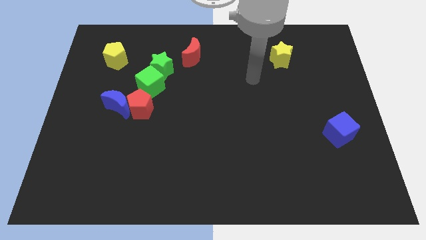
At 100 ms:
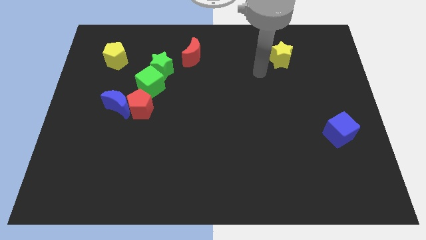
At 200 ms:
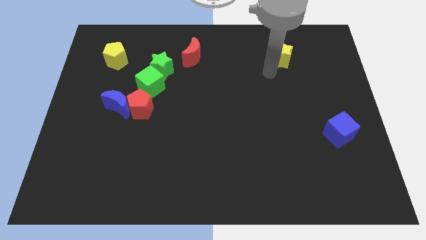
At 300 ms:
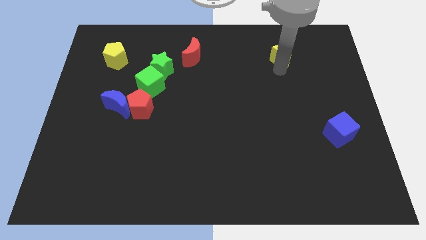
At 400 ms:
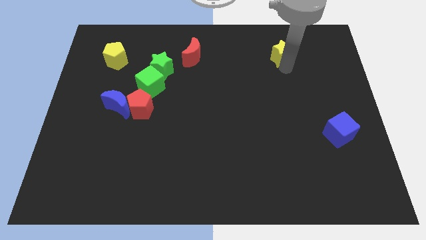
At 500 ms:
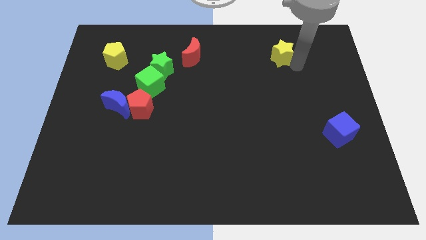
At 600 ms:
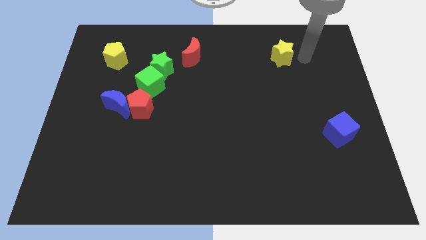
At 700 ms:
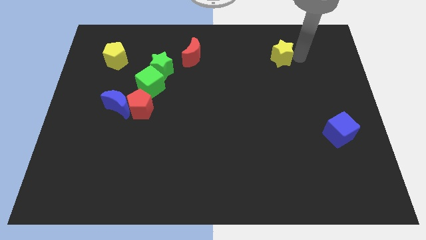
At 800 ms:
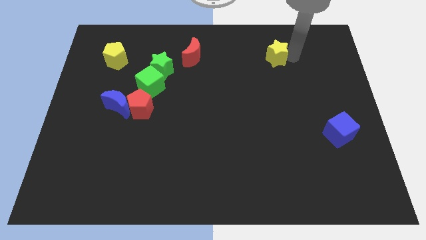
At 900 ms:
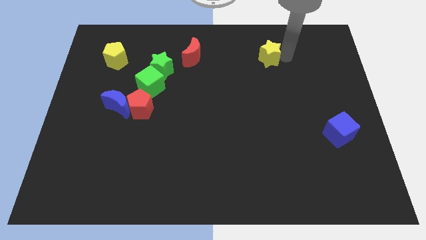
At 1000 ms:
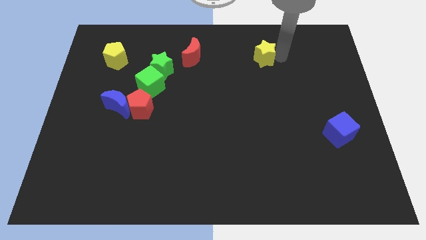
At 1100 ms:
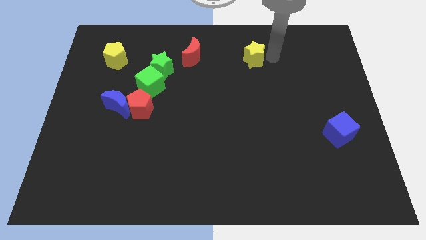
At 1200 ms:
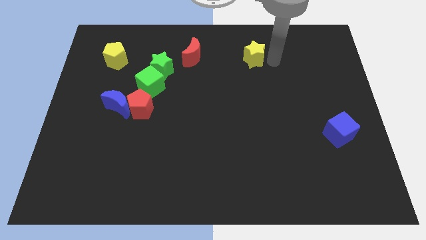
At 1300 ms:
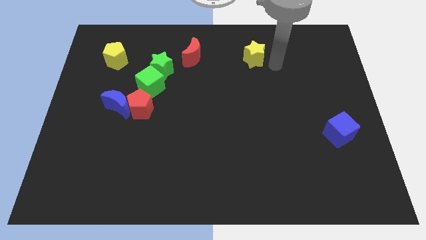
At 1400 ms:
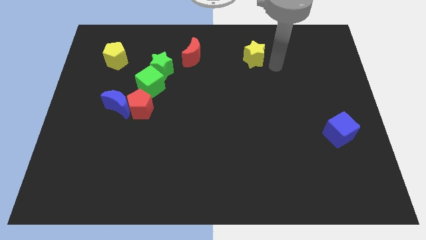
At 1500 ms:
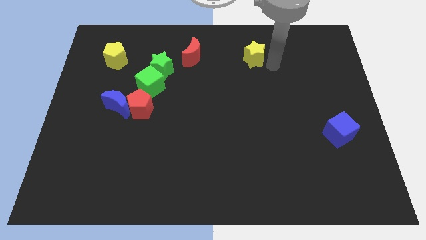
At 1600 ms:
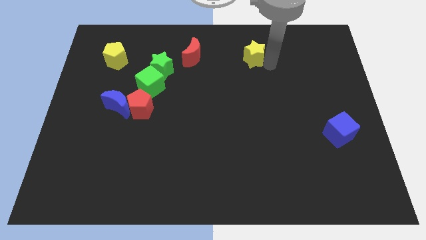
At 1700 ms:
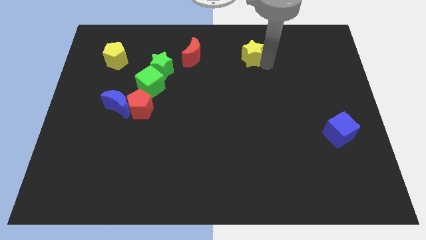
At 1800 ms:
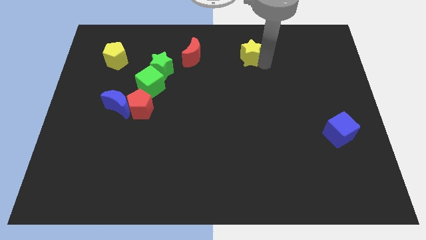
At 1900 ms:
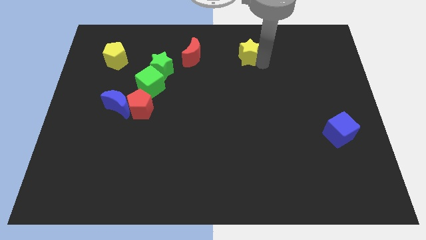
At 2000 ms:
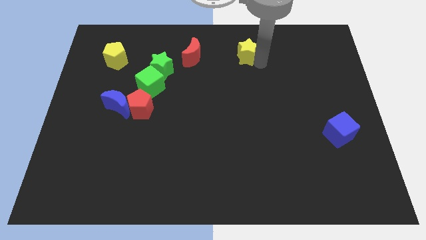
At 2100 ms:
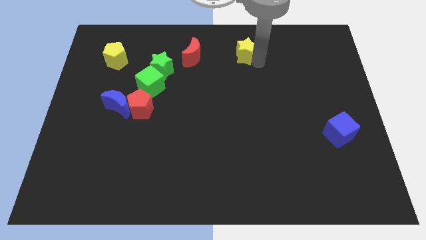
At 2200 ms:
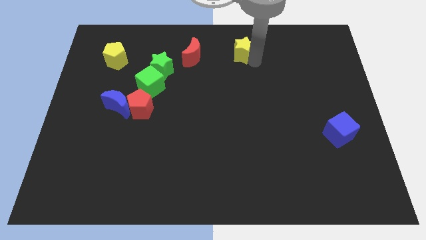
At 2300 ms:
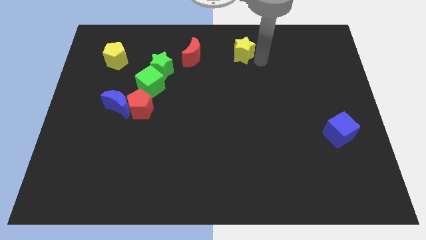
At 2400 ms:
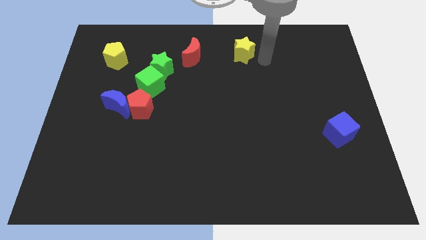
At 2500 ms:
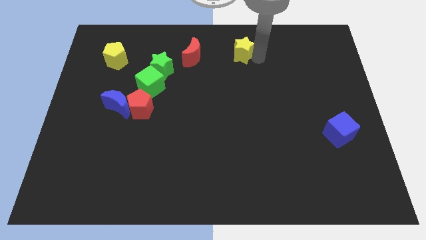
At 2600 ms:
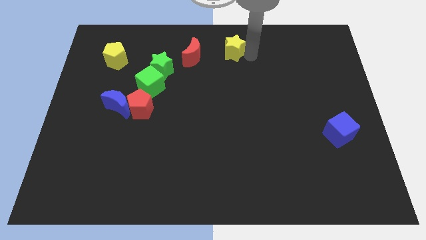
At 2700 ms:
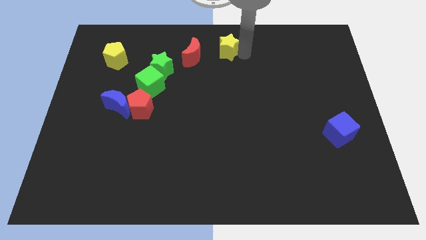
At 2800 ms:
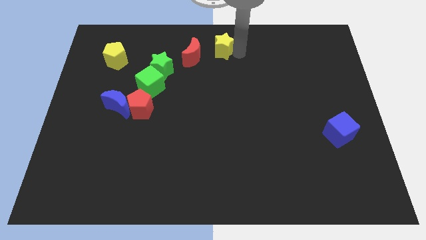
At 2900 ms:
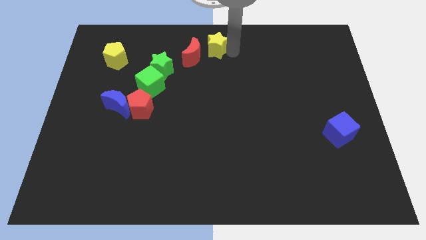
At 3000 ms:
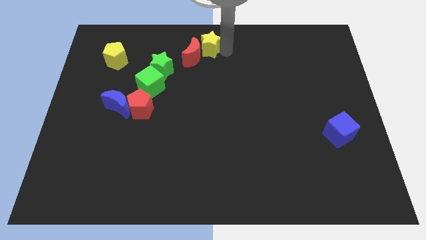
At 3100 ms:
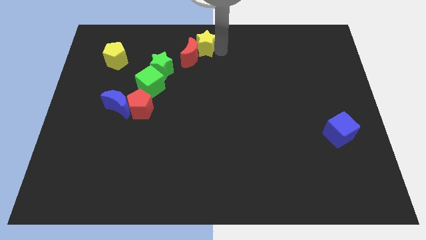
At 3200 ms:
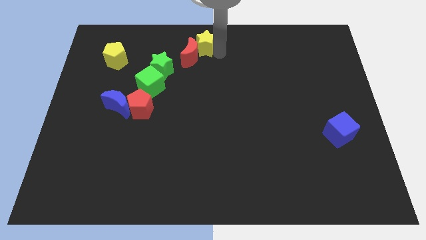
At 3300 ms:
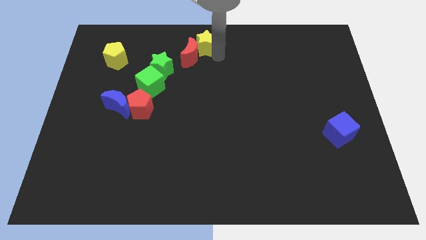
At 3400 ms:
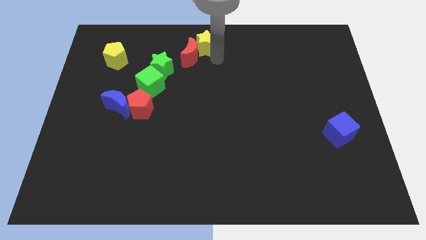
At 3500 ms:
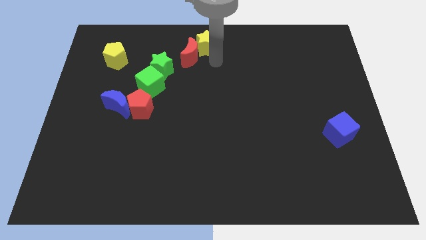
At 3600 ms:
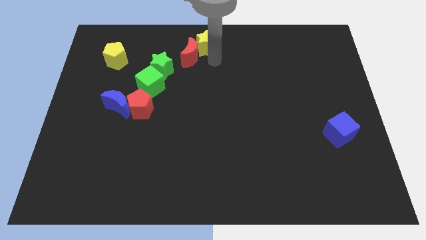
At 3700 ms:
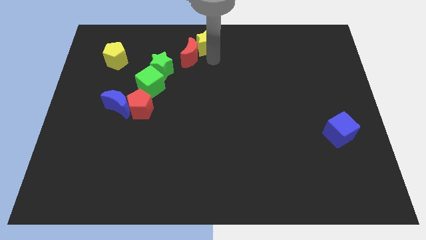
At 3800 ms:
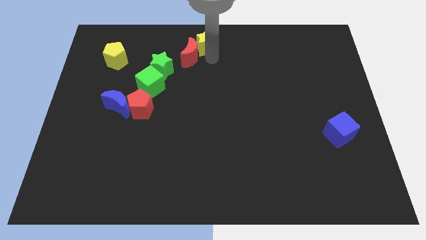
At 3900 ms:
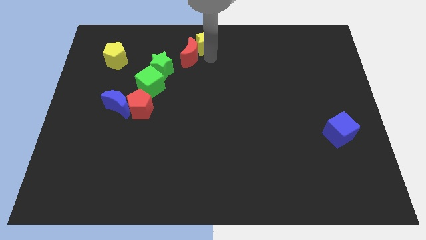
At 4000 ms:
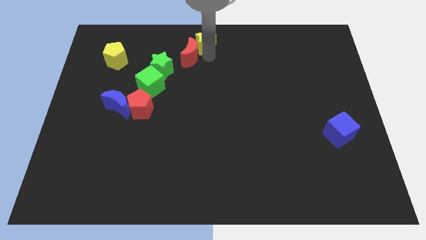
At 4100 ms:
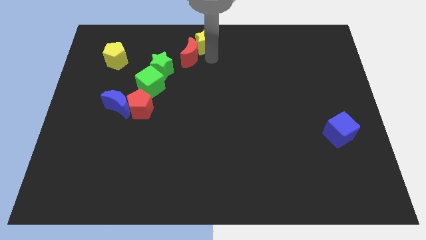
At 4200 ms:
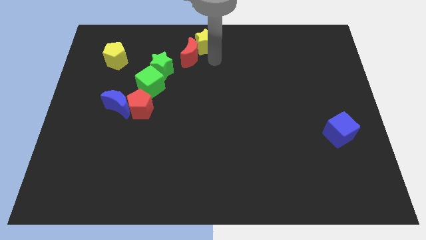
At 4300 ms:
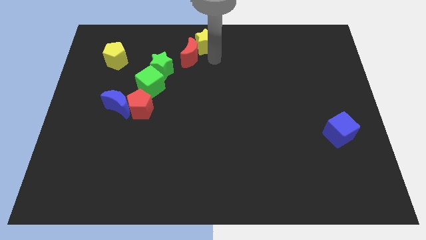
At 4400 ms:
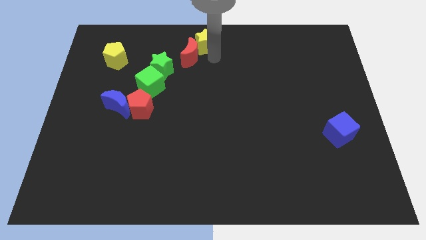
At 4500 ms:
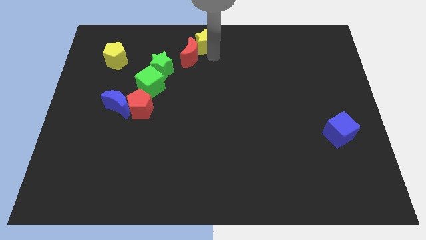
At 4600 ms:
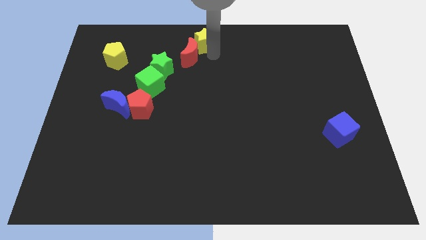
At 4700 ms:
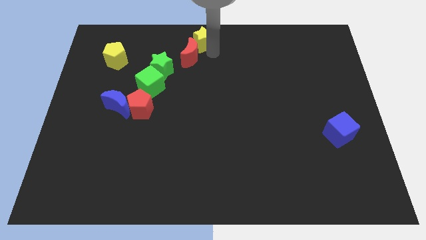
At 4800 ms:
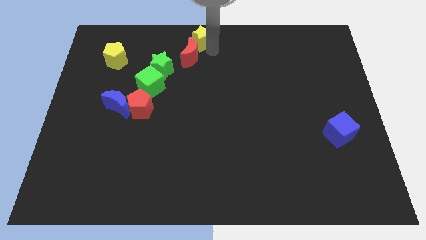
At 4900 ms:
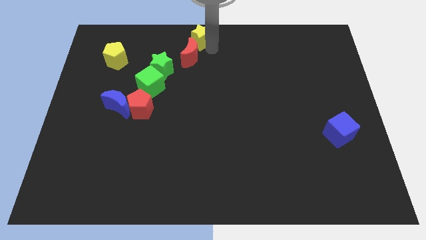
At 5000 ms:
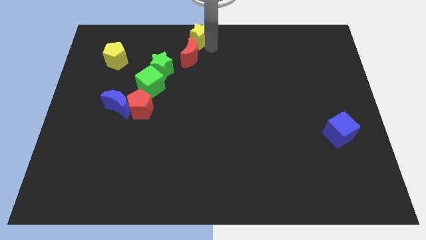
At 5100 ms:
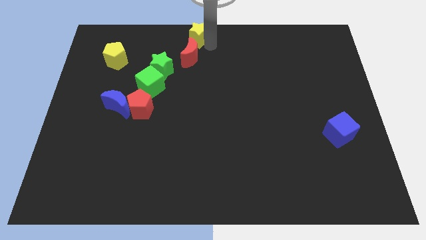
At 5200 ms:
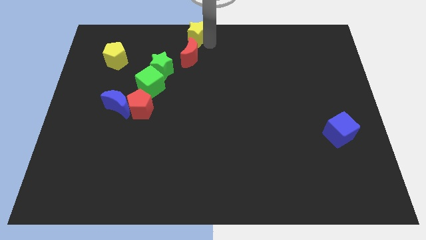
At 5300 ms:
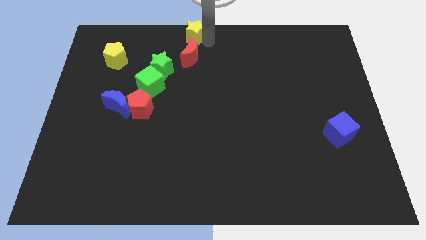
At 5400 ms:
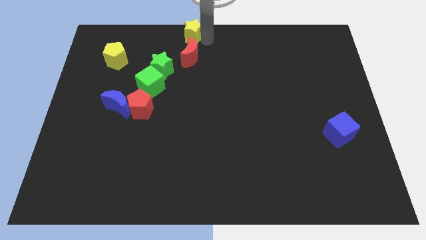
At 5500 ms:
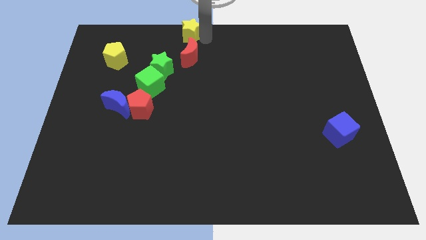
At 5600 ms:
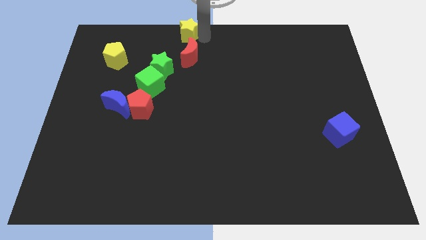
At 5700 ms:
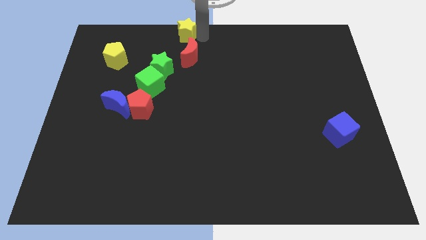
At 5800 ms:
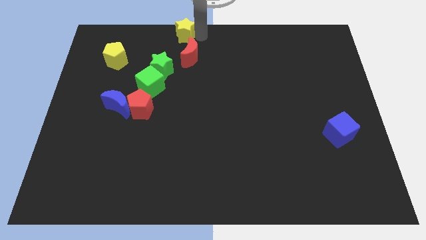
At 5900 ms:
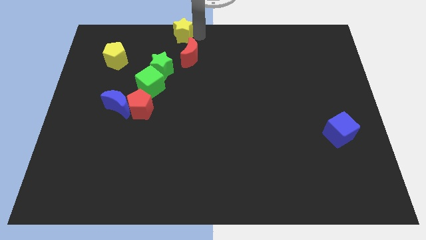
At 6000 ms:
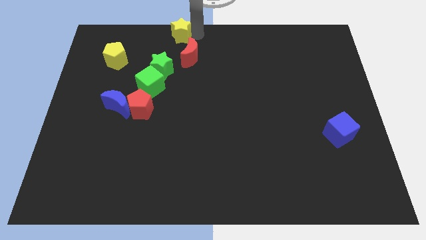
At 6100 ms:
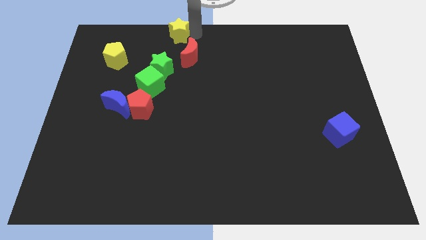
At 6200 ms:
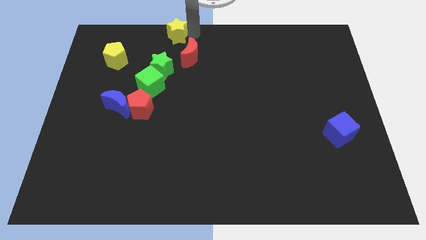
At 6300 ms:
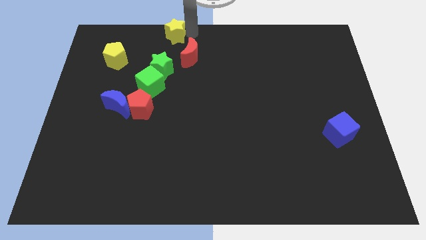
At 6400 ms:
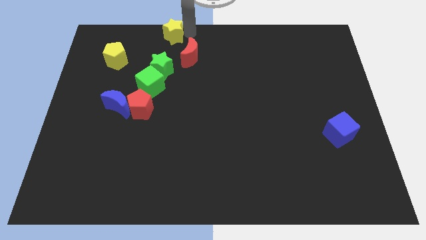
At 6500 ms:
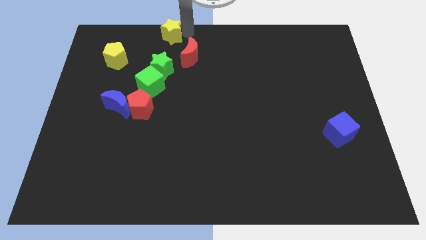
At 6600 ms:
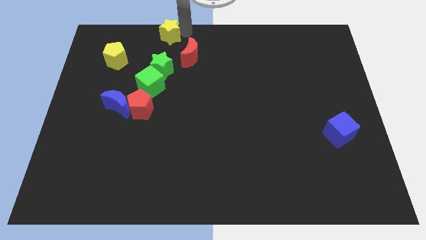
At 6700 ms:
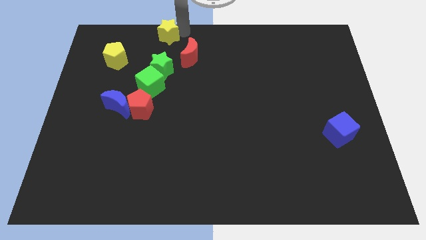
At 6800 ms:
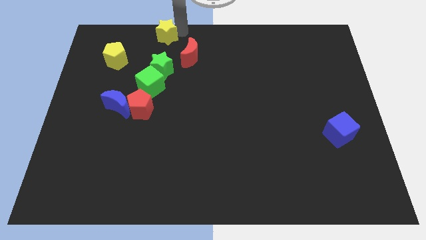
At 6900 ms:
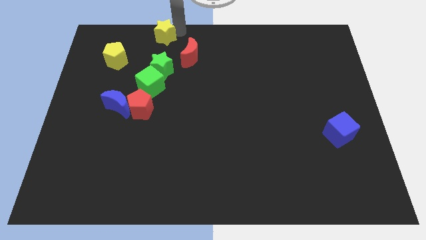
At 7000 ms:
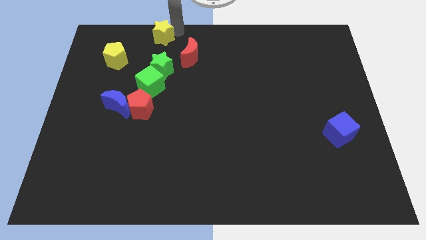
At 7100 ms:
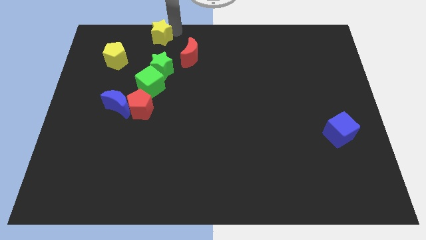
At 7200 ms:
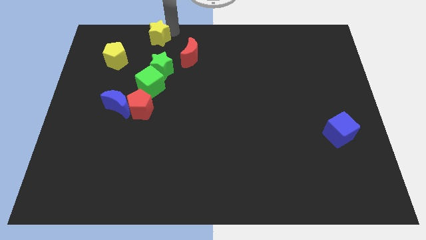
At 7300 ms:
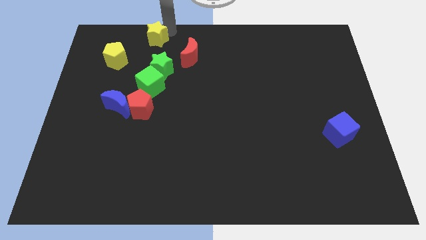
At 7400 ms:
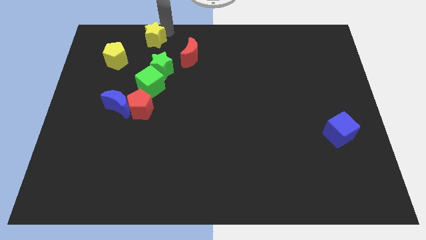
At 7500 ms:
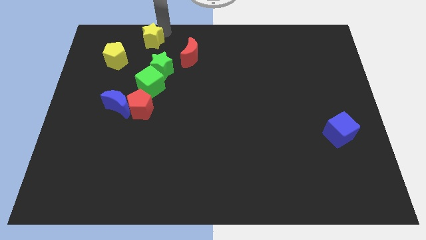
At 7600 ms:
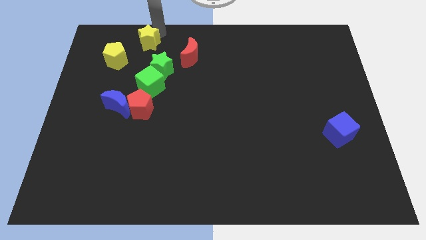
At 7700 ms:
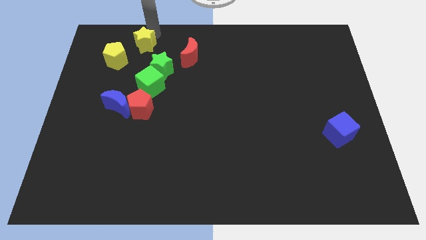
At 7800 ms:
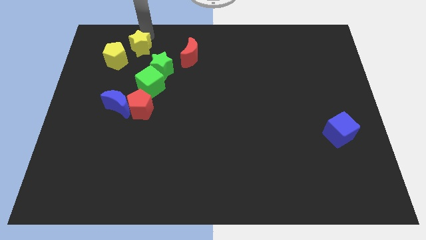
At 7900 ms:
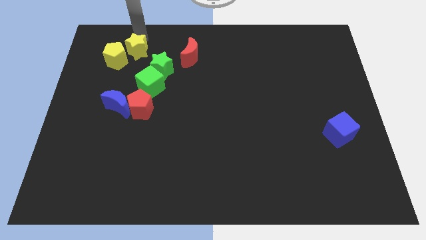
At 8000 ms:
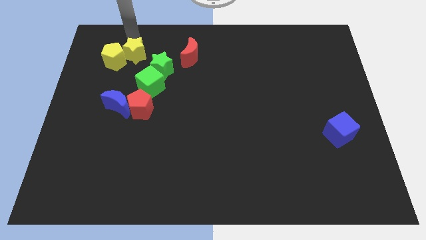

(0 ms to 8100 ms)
push the yellow star next to the yellow pentagon
